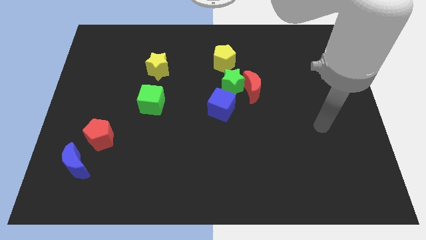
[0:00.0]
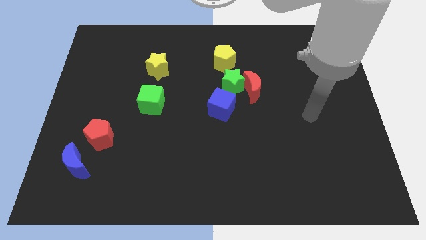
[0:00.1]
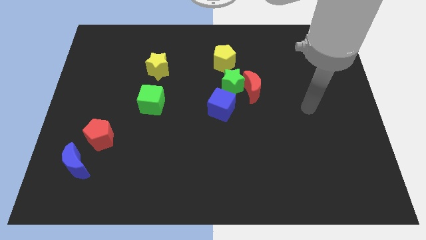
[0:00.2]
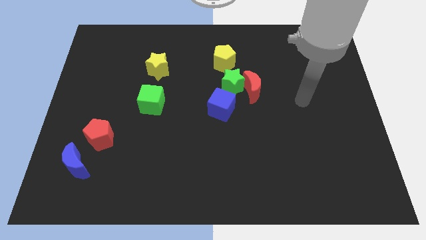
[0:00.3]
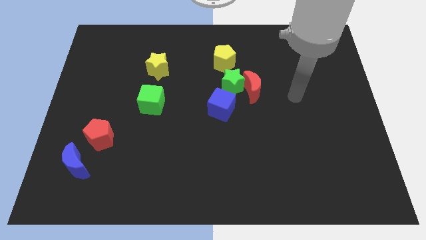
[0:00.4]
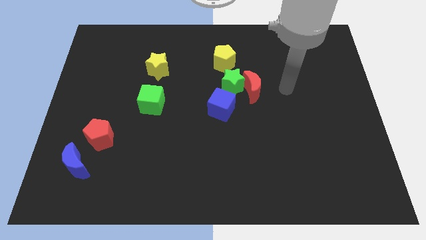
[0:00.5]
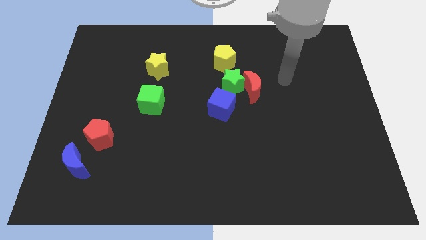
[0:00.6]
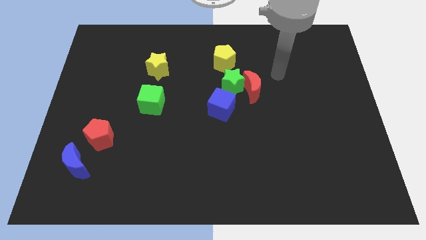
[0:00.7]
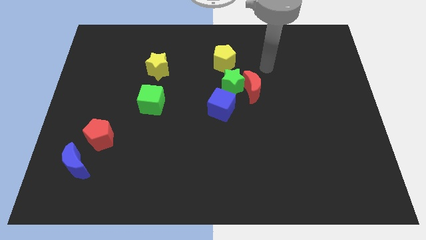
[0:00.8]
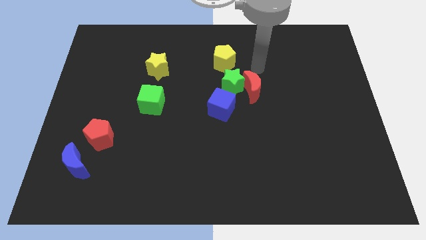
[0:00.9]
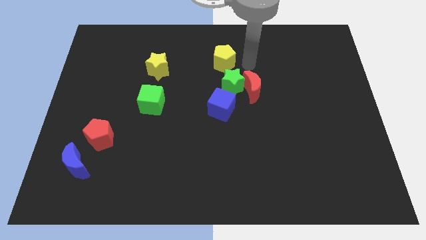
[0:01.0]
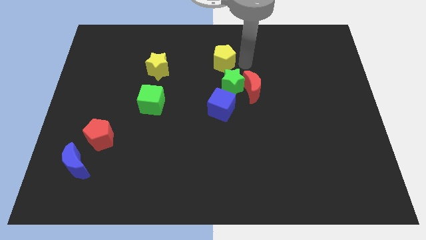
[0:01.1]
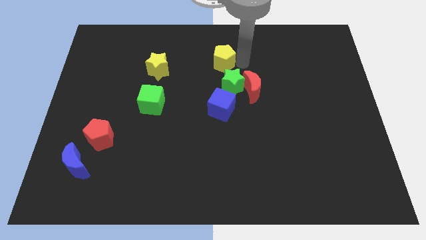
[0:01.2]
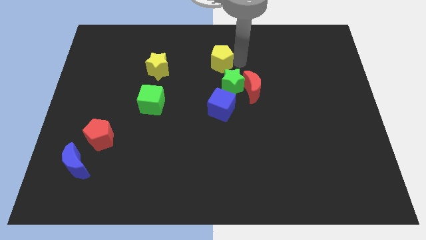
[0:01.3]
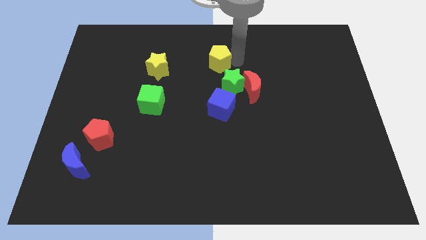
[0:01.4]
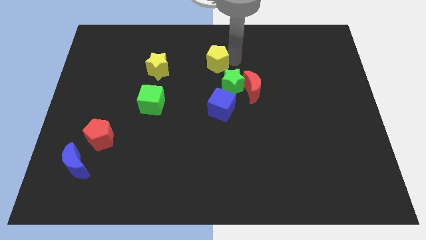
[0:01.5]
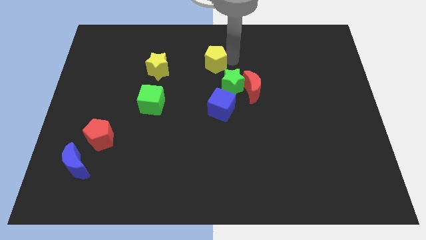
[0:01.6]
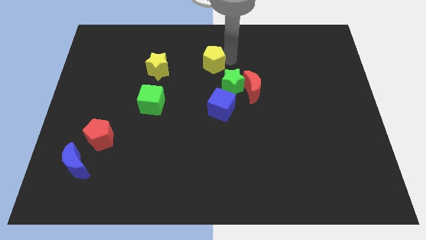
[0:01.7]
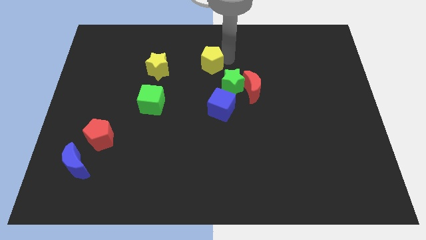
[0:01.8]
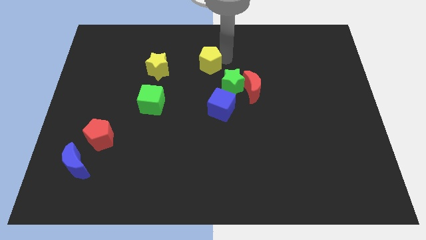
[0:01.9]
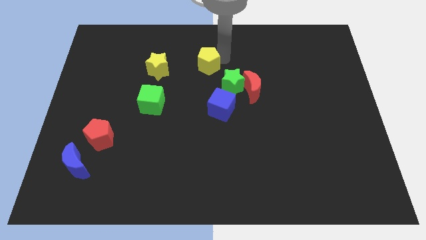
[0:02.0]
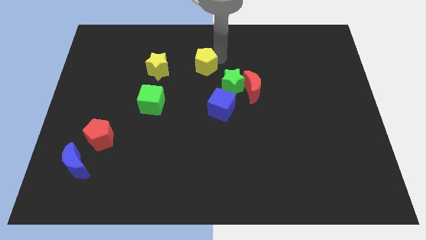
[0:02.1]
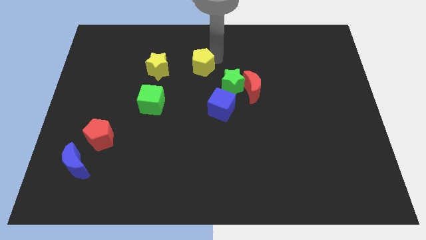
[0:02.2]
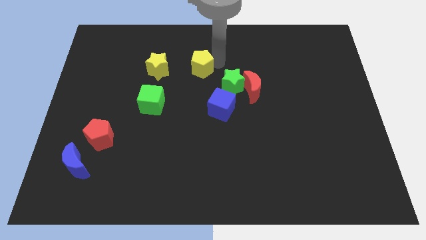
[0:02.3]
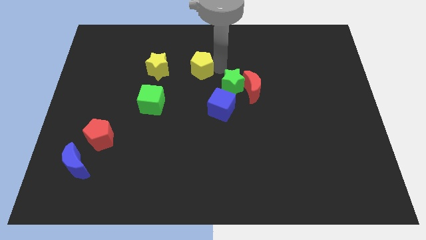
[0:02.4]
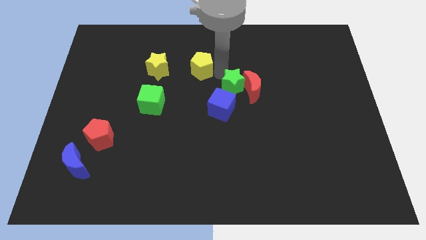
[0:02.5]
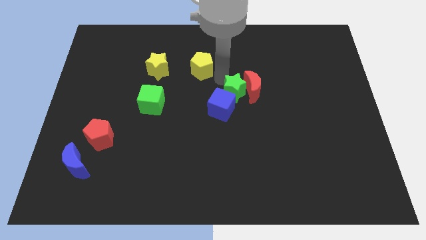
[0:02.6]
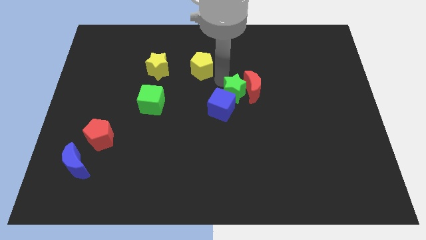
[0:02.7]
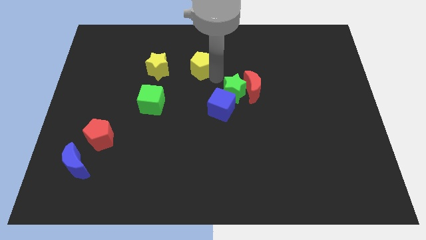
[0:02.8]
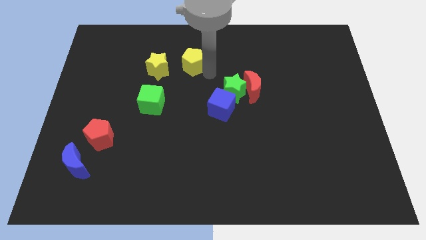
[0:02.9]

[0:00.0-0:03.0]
slightly slide the yellow pentagon left

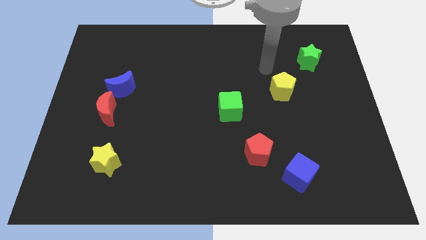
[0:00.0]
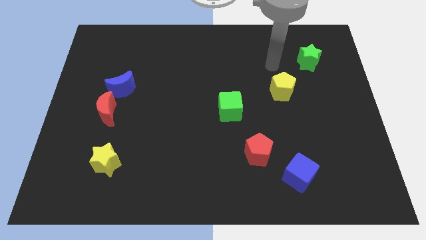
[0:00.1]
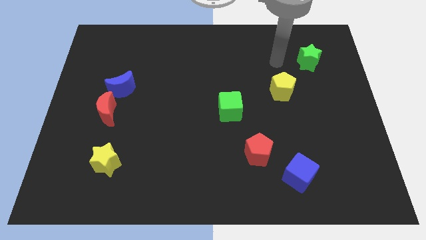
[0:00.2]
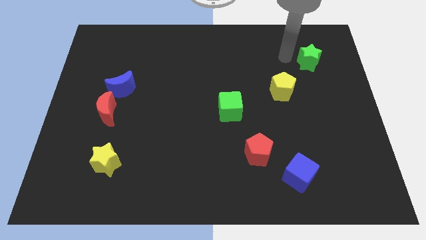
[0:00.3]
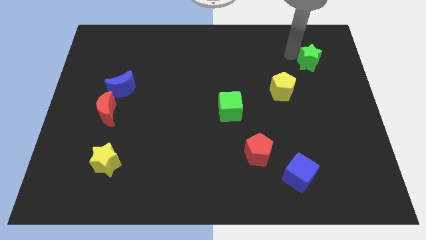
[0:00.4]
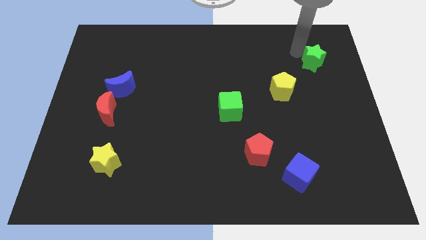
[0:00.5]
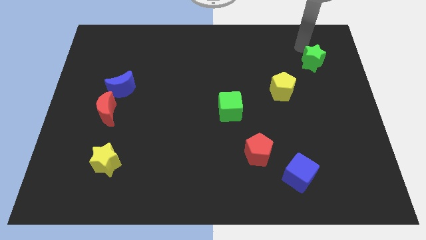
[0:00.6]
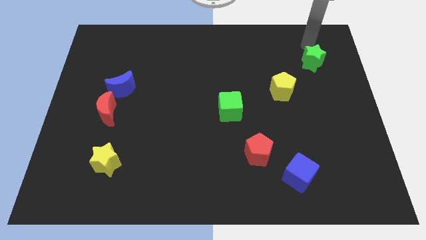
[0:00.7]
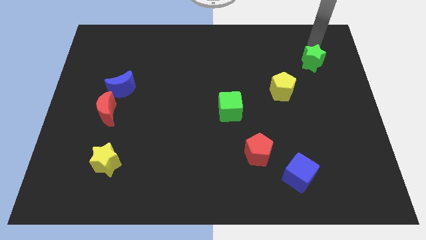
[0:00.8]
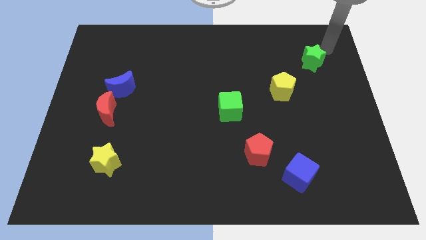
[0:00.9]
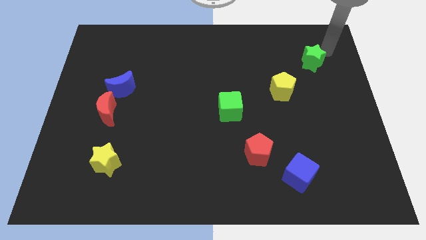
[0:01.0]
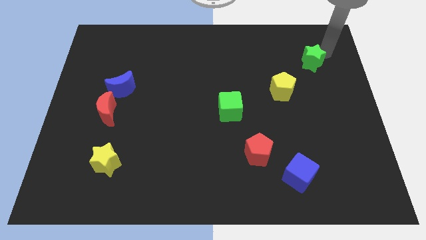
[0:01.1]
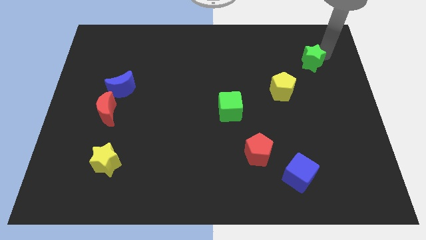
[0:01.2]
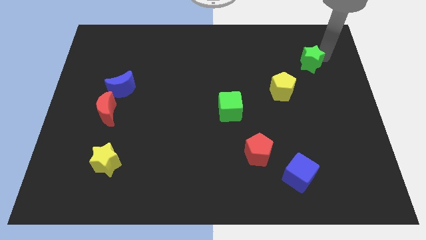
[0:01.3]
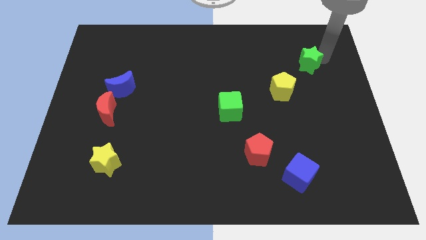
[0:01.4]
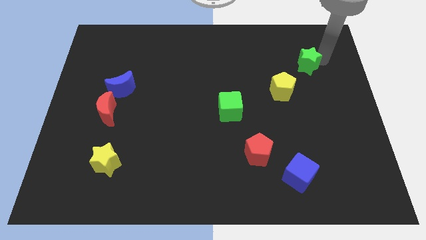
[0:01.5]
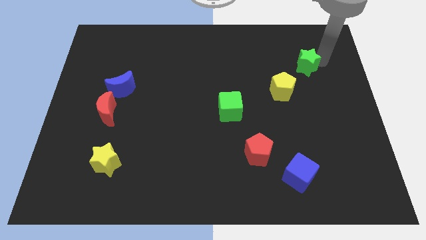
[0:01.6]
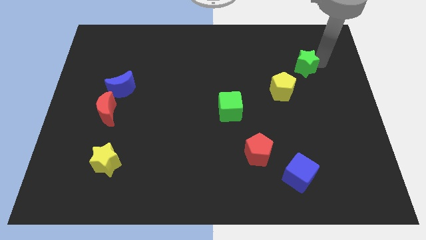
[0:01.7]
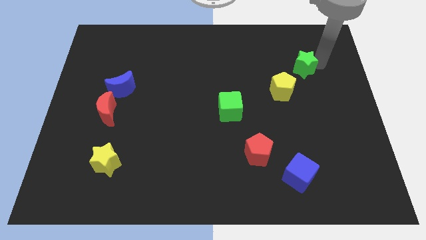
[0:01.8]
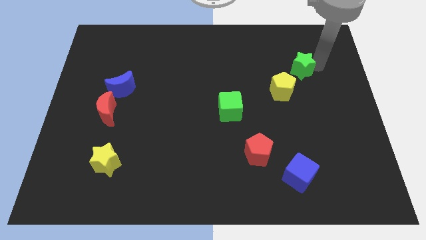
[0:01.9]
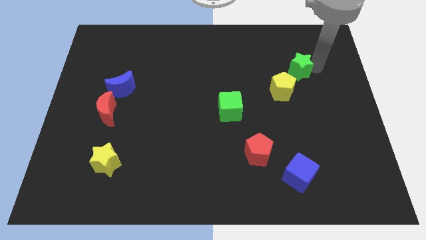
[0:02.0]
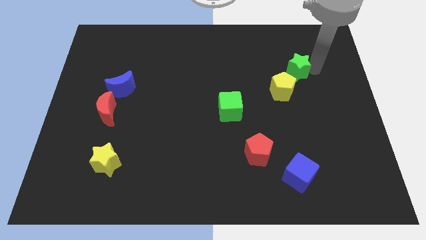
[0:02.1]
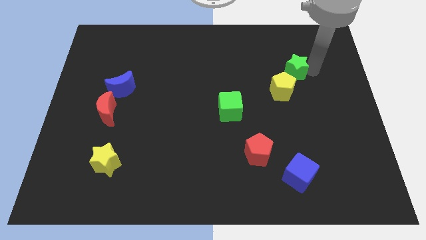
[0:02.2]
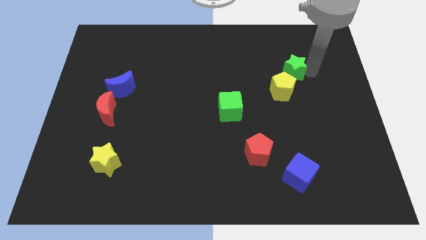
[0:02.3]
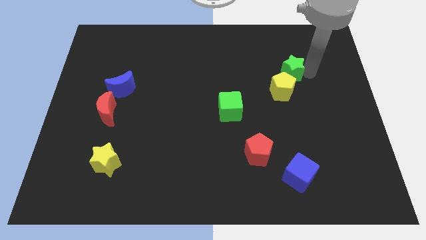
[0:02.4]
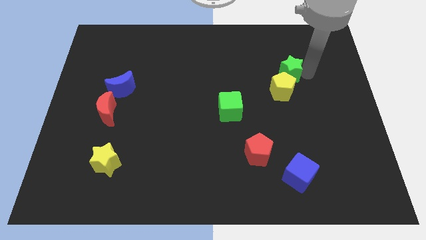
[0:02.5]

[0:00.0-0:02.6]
slightly slide the green star diagonally downwards and left

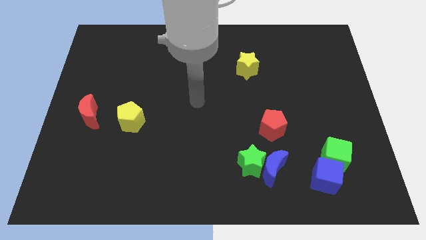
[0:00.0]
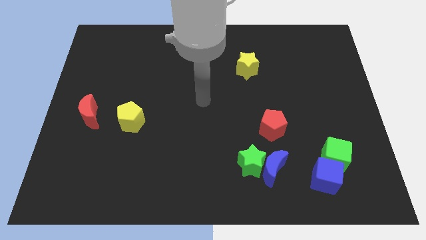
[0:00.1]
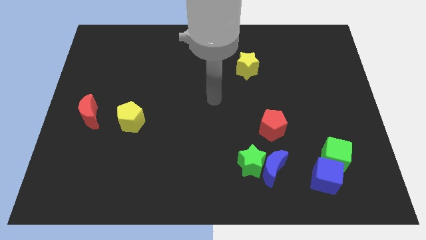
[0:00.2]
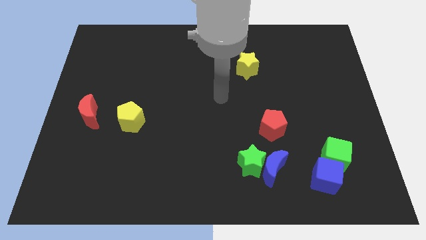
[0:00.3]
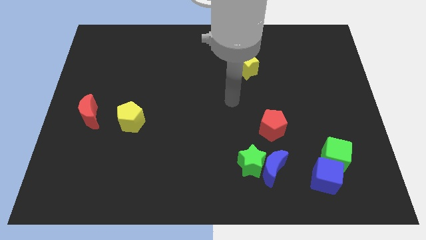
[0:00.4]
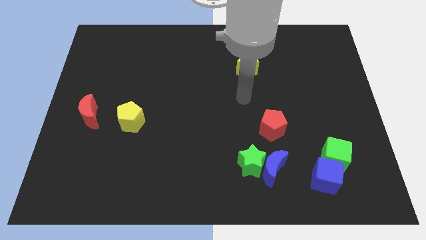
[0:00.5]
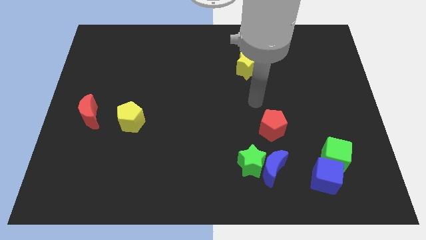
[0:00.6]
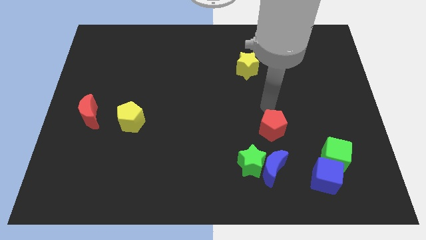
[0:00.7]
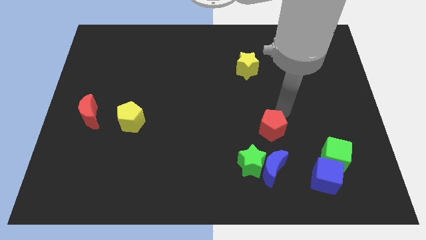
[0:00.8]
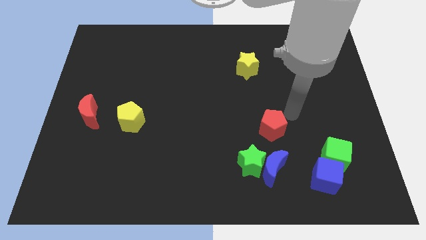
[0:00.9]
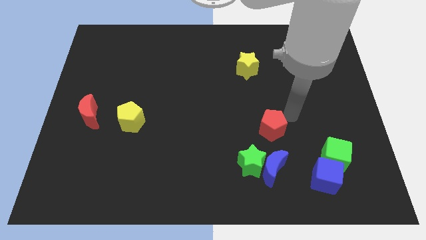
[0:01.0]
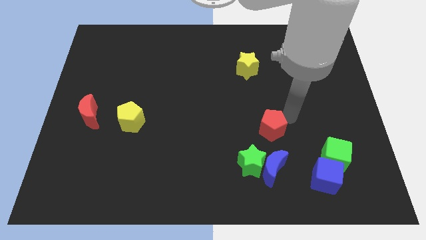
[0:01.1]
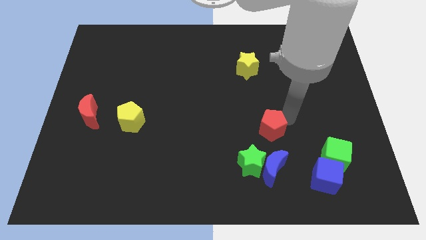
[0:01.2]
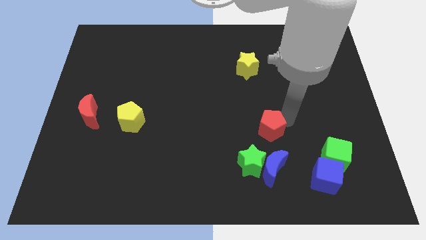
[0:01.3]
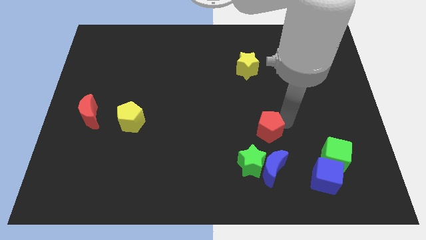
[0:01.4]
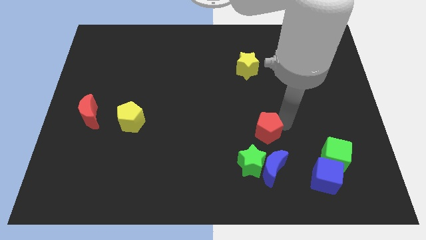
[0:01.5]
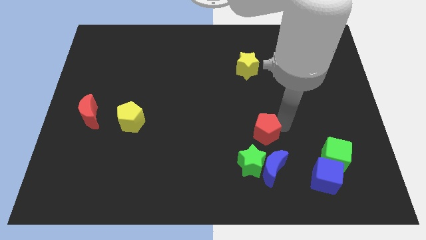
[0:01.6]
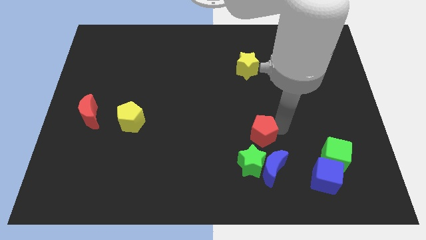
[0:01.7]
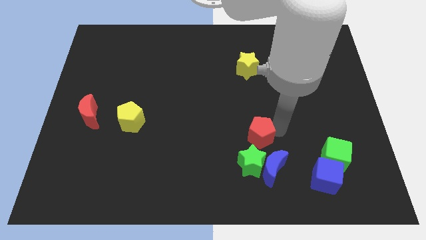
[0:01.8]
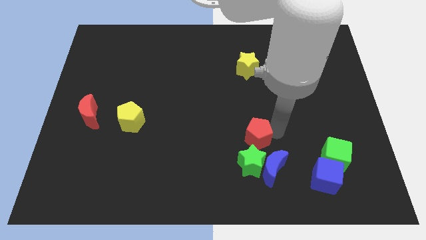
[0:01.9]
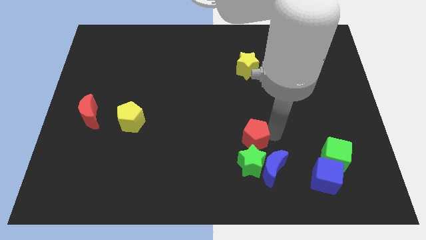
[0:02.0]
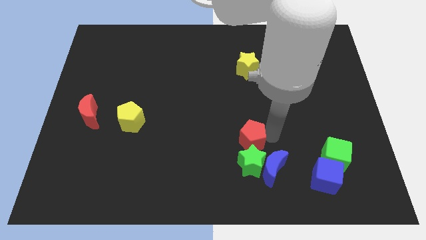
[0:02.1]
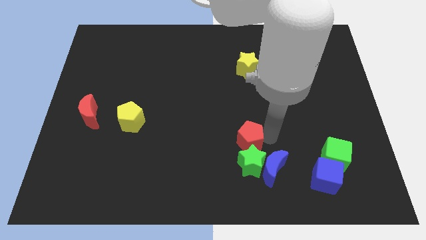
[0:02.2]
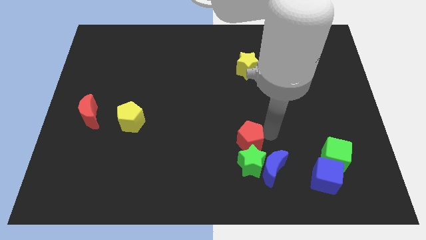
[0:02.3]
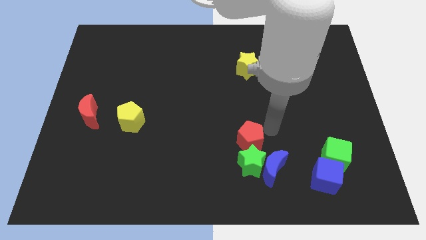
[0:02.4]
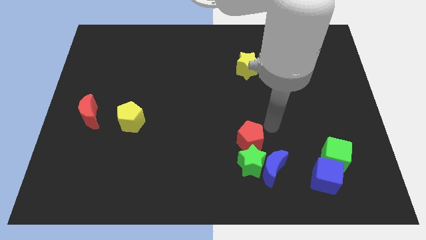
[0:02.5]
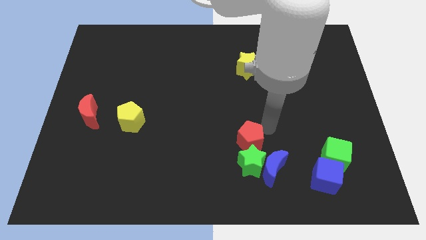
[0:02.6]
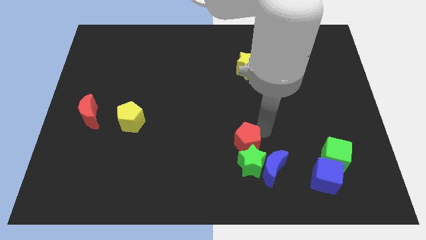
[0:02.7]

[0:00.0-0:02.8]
move the red pentagon downwards and then left somewhat
